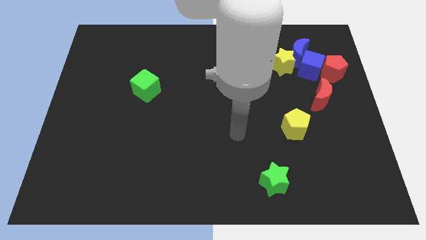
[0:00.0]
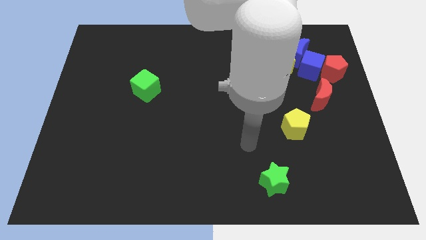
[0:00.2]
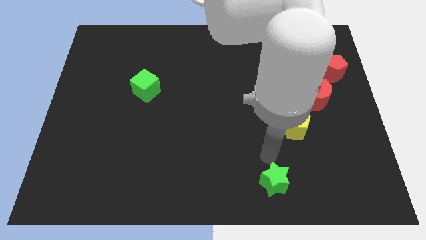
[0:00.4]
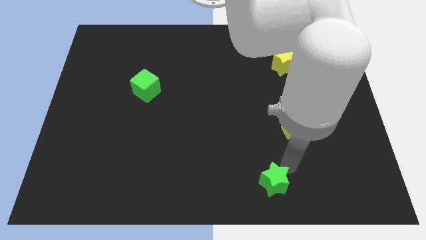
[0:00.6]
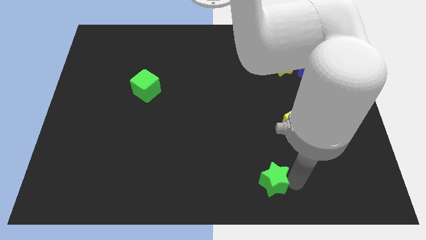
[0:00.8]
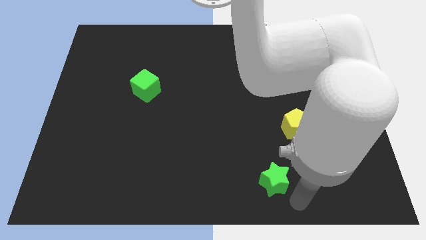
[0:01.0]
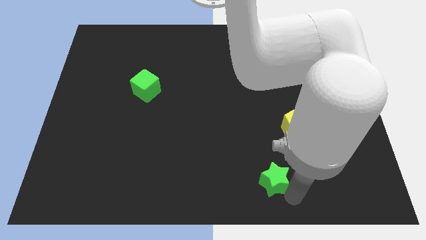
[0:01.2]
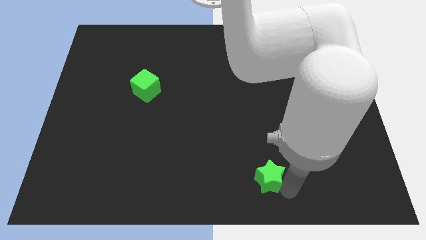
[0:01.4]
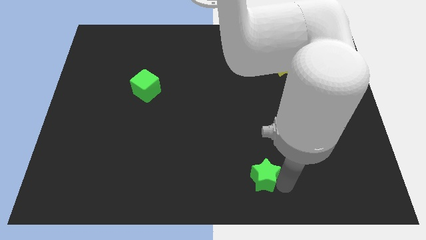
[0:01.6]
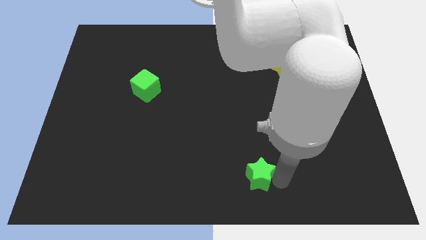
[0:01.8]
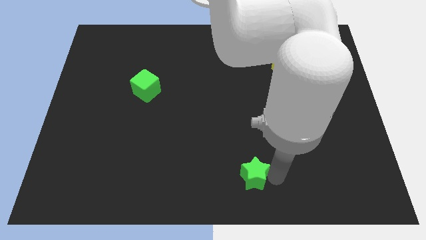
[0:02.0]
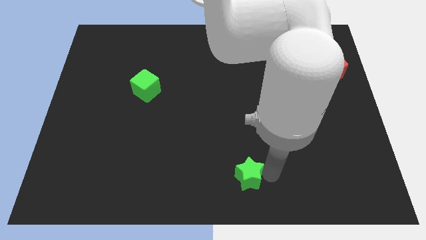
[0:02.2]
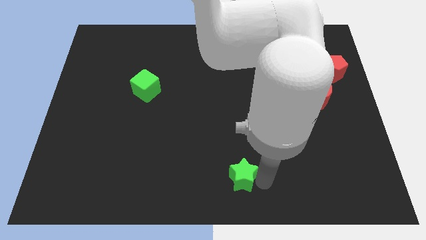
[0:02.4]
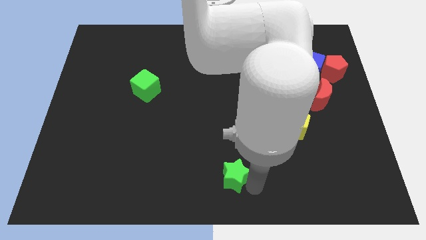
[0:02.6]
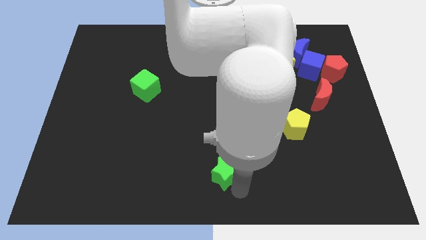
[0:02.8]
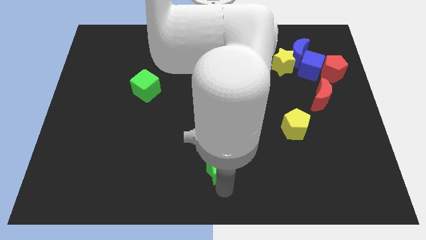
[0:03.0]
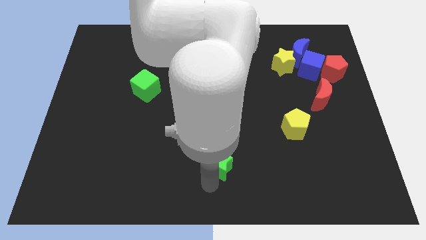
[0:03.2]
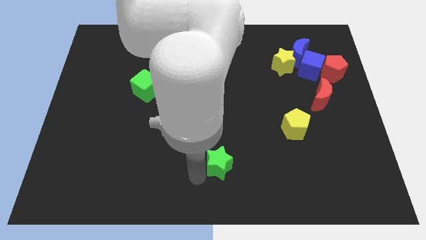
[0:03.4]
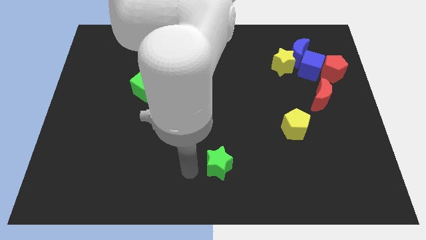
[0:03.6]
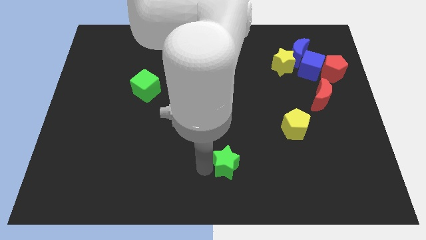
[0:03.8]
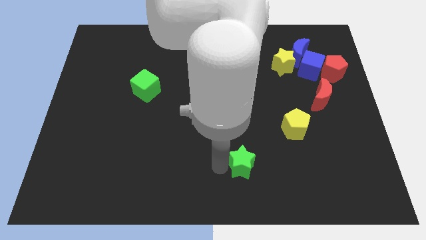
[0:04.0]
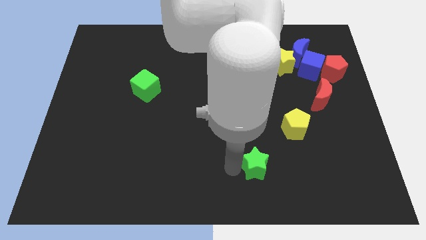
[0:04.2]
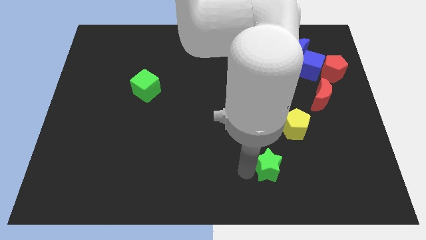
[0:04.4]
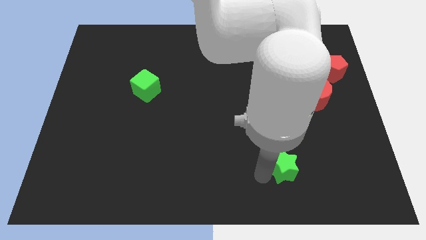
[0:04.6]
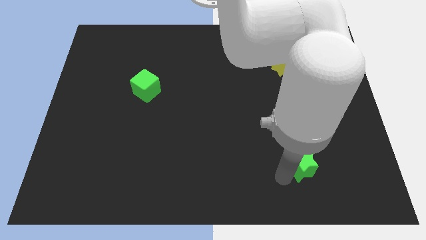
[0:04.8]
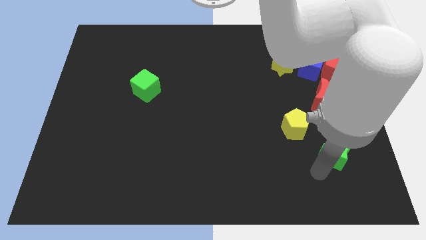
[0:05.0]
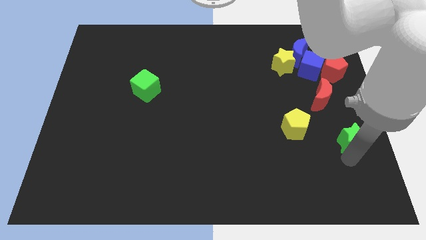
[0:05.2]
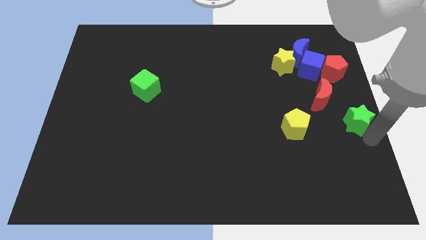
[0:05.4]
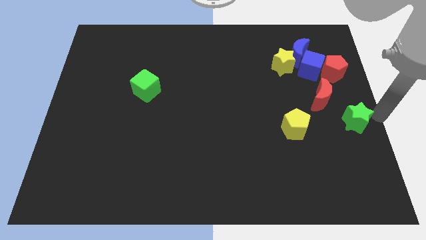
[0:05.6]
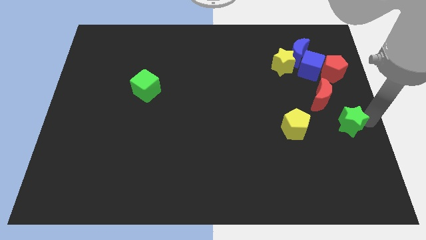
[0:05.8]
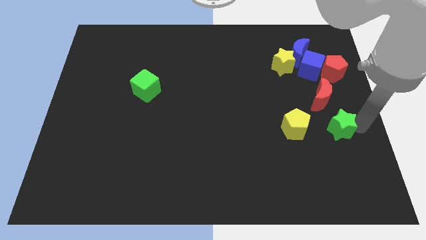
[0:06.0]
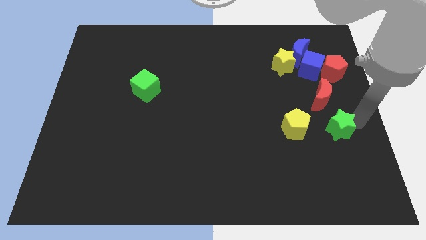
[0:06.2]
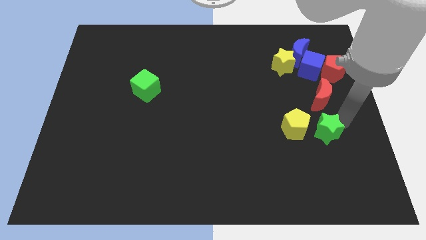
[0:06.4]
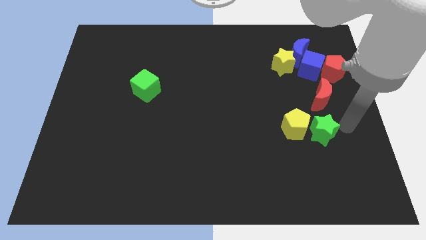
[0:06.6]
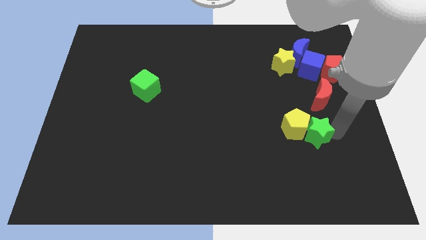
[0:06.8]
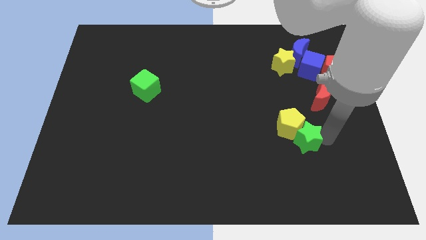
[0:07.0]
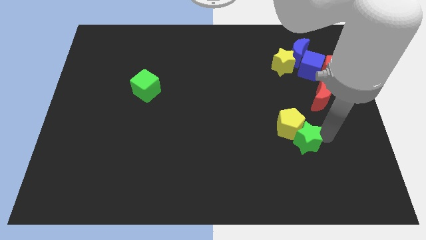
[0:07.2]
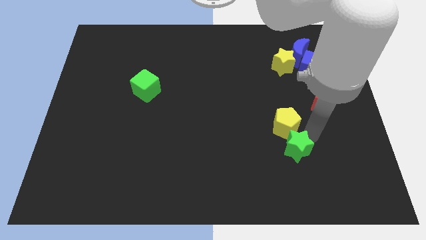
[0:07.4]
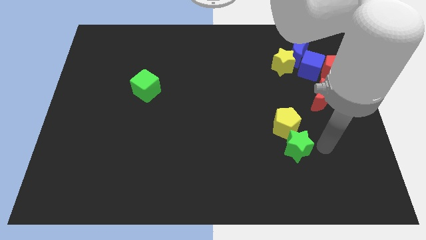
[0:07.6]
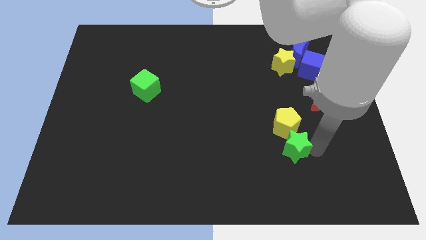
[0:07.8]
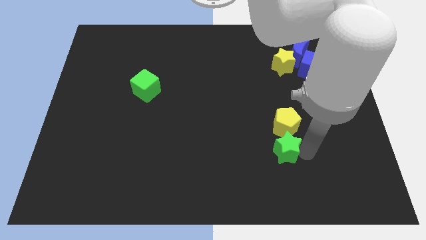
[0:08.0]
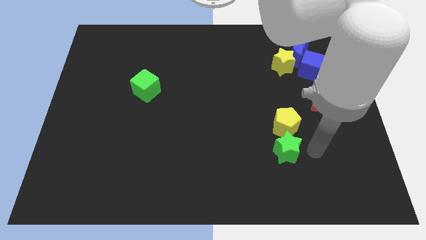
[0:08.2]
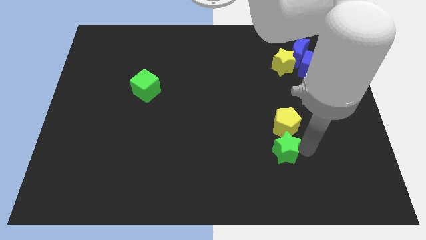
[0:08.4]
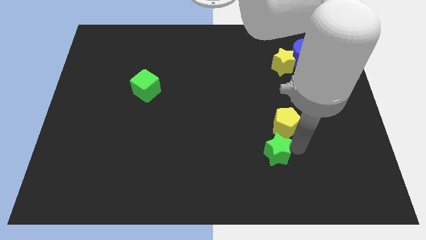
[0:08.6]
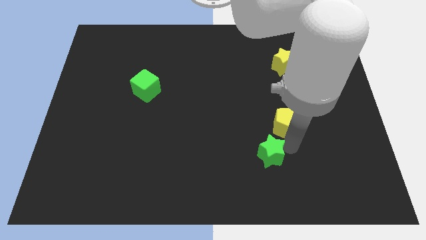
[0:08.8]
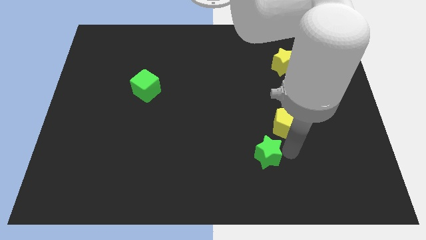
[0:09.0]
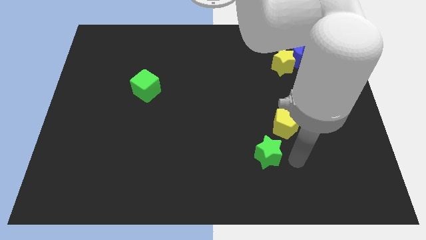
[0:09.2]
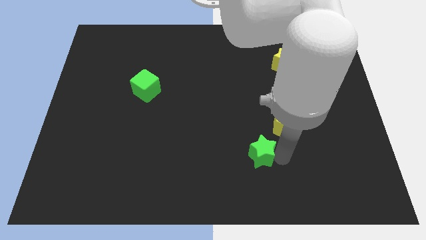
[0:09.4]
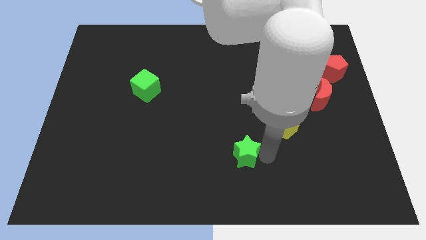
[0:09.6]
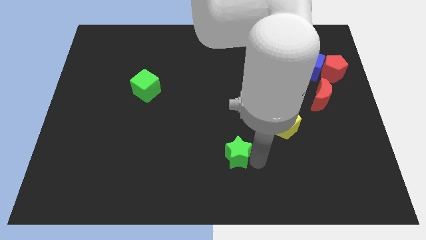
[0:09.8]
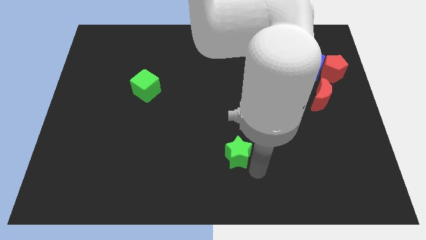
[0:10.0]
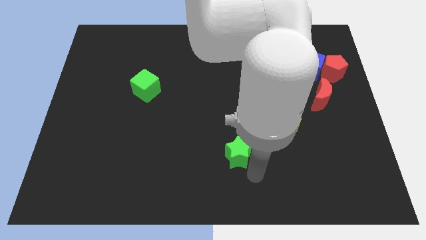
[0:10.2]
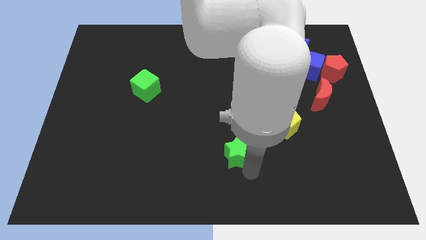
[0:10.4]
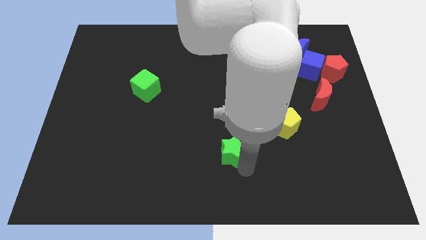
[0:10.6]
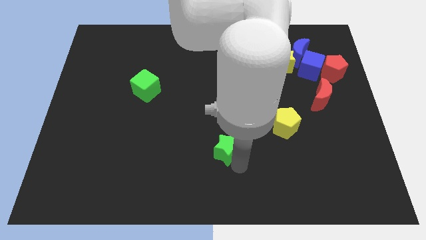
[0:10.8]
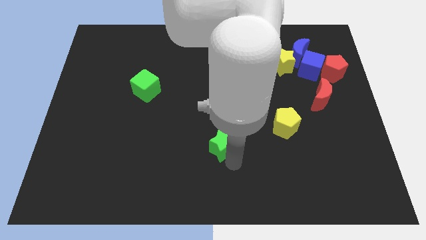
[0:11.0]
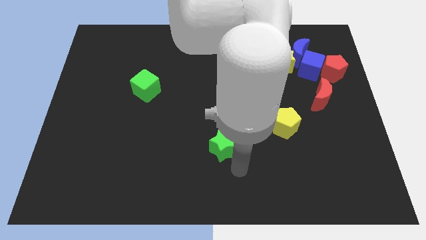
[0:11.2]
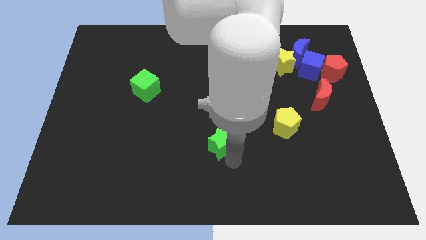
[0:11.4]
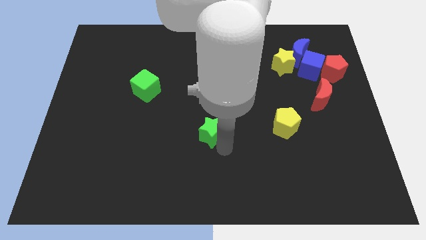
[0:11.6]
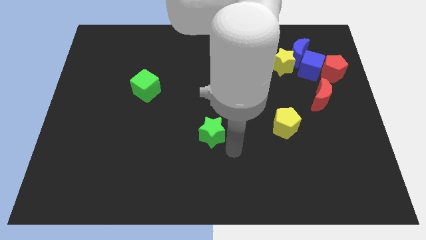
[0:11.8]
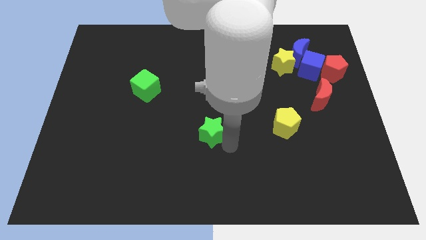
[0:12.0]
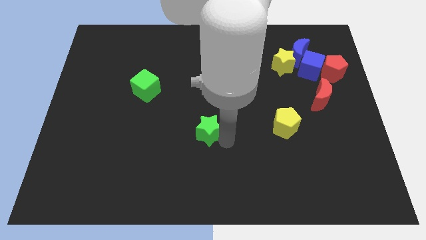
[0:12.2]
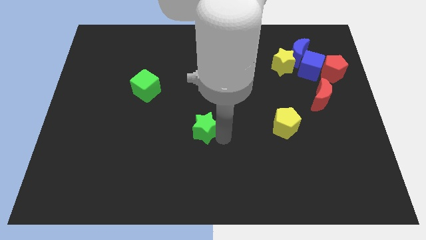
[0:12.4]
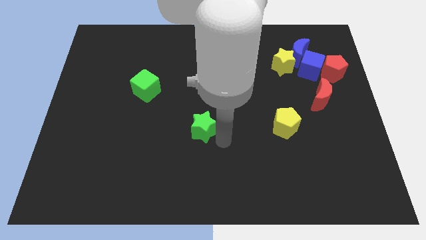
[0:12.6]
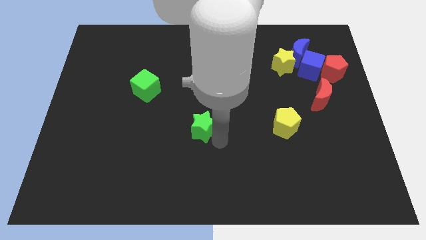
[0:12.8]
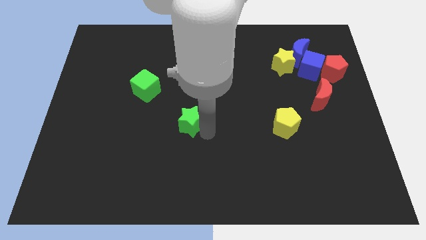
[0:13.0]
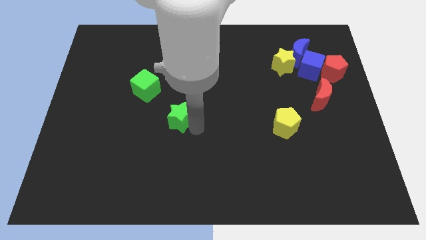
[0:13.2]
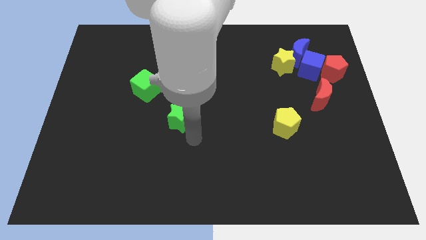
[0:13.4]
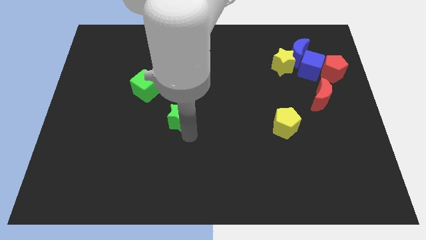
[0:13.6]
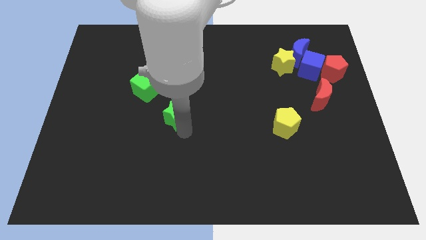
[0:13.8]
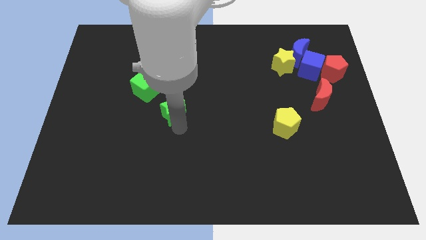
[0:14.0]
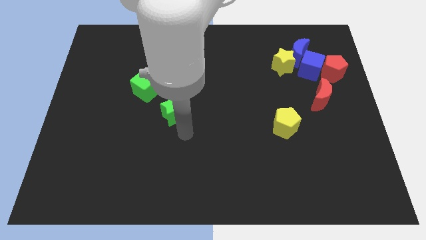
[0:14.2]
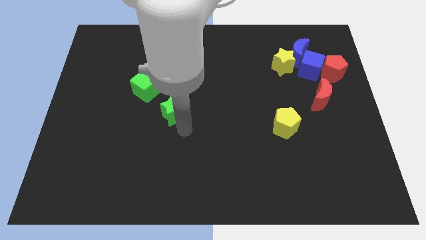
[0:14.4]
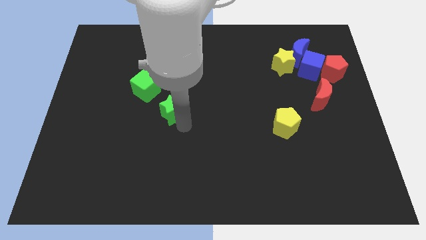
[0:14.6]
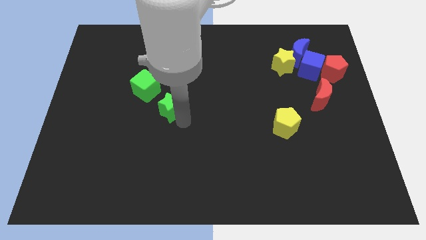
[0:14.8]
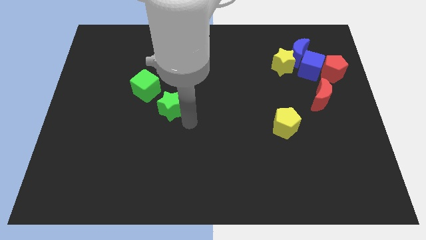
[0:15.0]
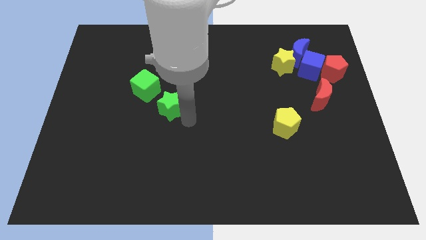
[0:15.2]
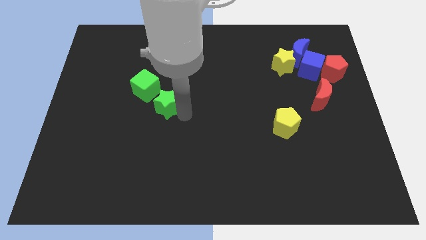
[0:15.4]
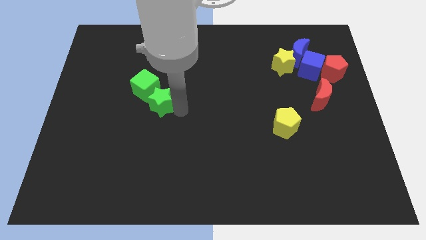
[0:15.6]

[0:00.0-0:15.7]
push the green star close to the green cube
